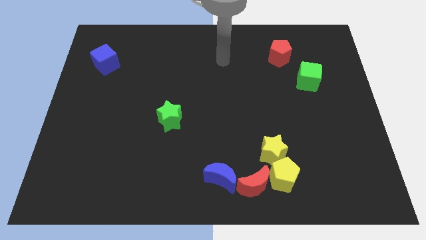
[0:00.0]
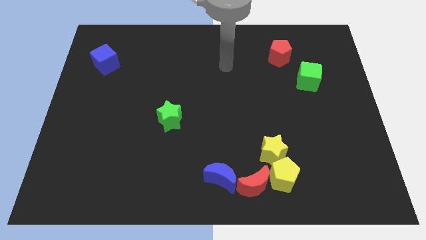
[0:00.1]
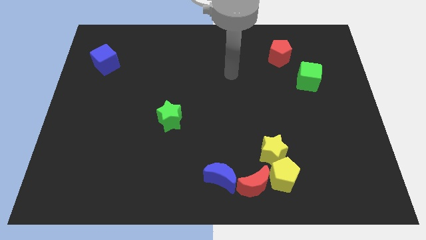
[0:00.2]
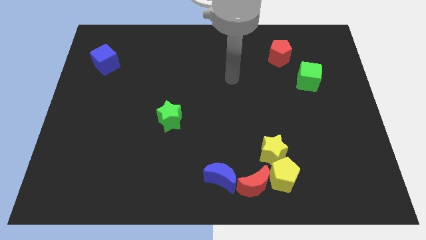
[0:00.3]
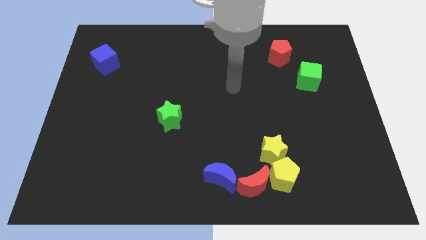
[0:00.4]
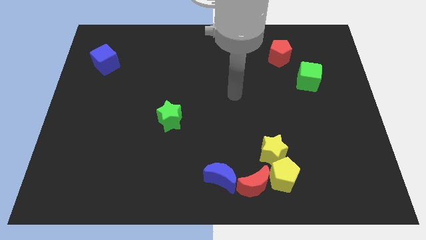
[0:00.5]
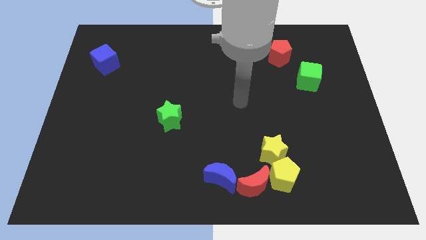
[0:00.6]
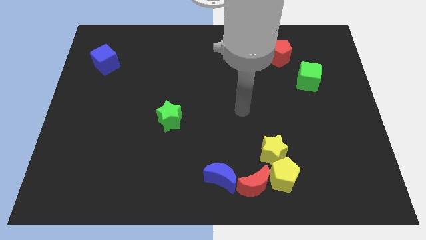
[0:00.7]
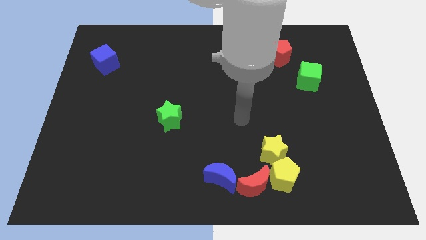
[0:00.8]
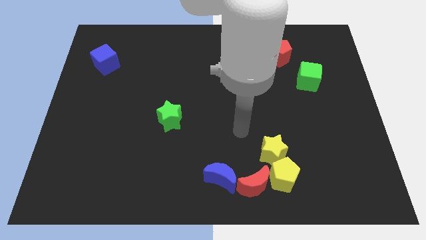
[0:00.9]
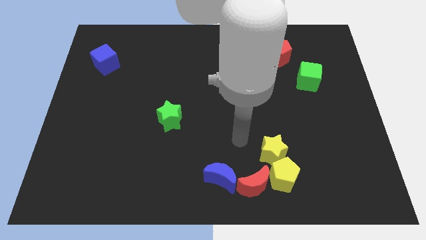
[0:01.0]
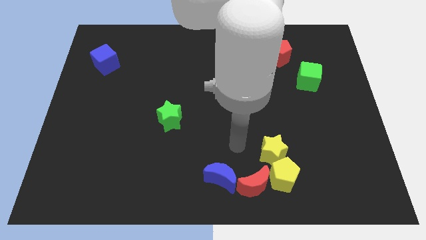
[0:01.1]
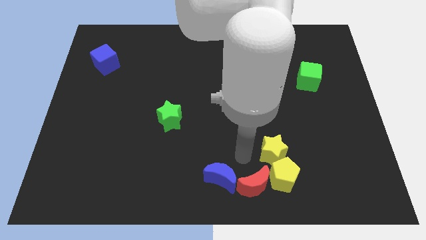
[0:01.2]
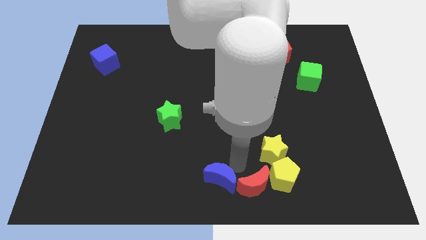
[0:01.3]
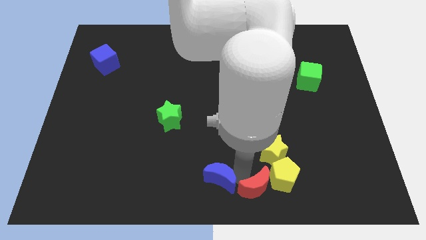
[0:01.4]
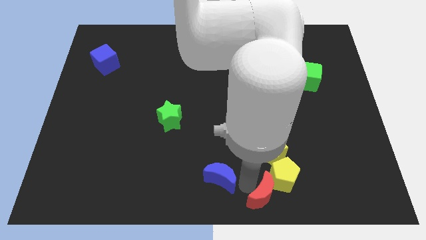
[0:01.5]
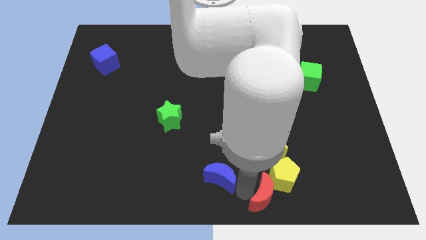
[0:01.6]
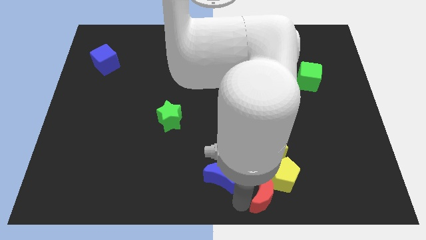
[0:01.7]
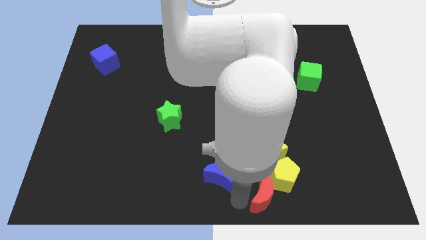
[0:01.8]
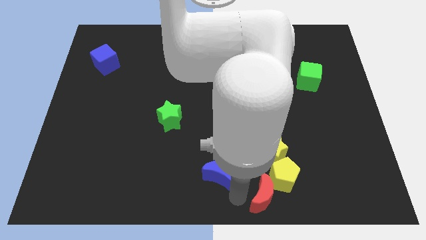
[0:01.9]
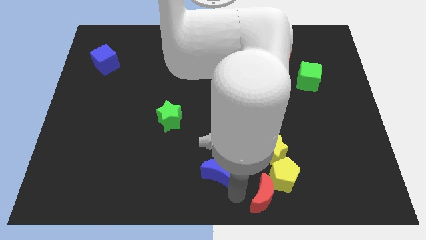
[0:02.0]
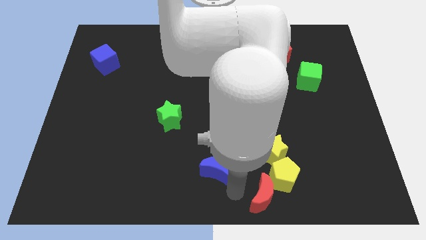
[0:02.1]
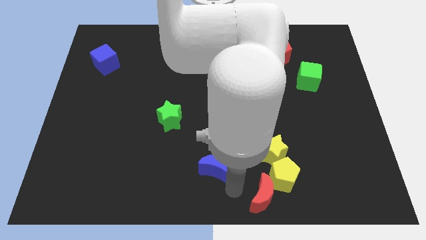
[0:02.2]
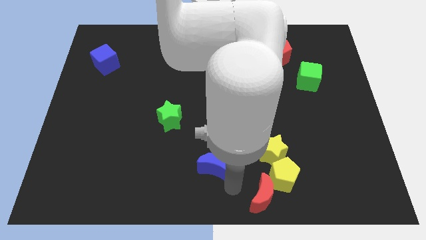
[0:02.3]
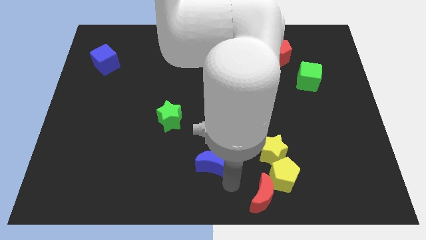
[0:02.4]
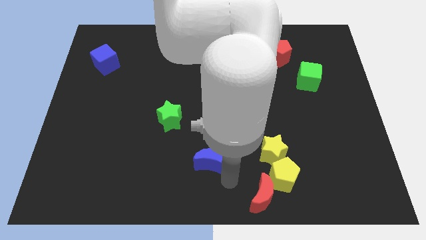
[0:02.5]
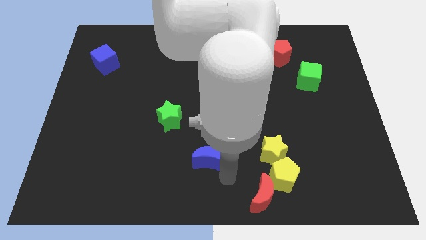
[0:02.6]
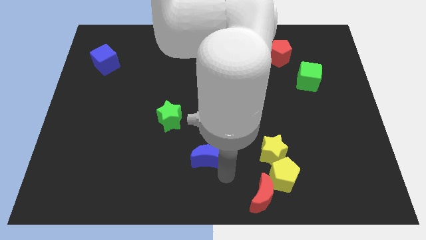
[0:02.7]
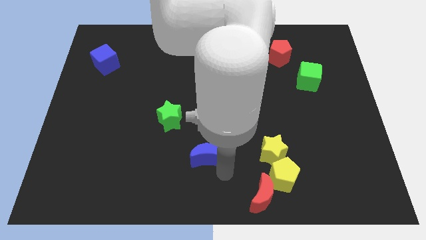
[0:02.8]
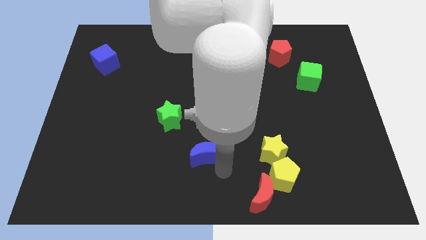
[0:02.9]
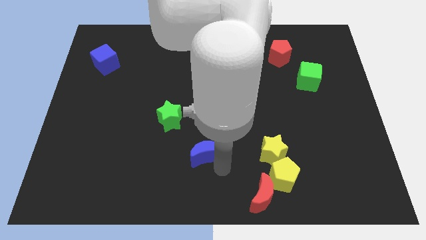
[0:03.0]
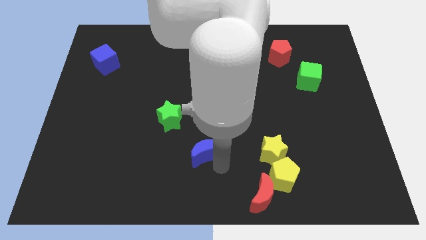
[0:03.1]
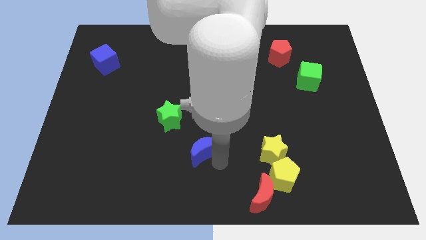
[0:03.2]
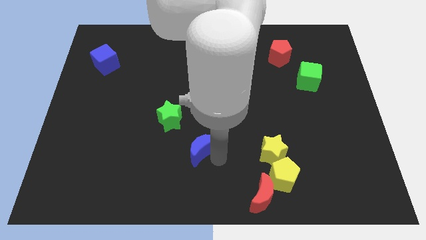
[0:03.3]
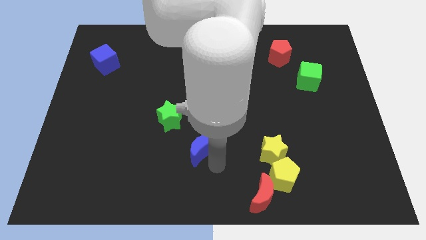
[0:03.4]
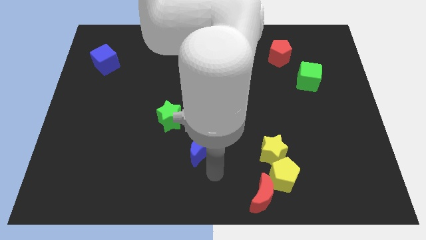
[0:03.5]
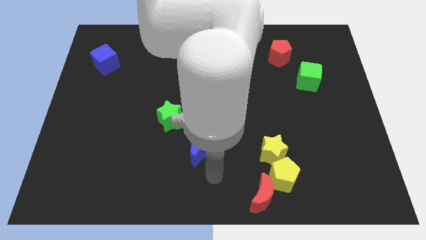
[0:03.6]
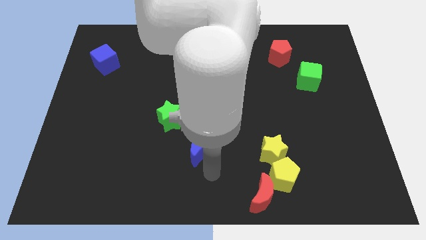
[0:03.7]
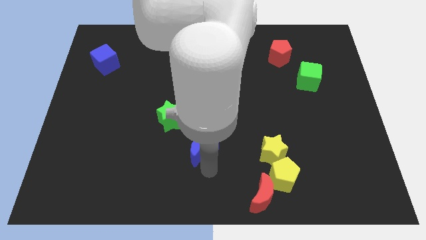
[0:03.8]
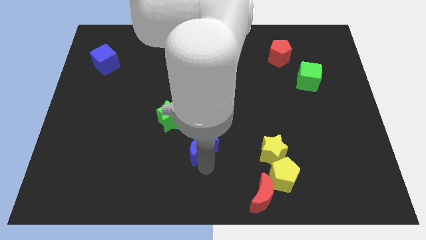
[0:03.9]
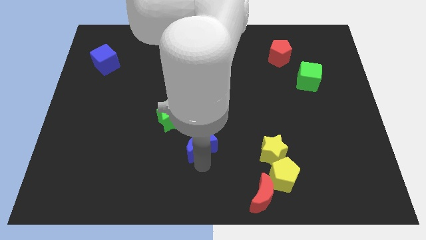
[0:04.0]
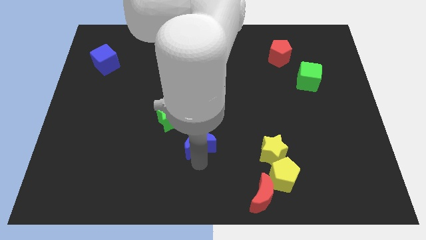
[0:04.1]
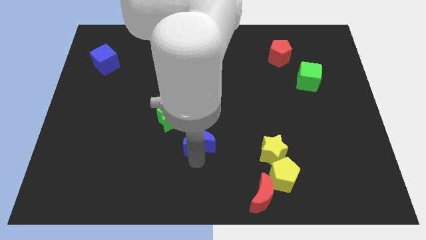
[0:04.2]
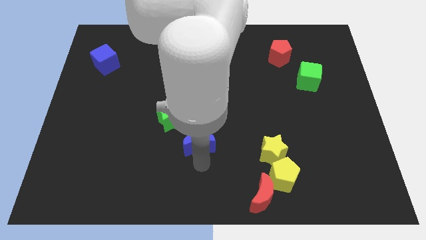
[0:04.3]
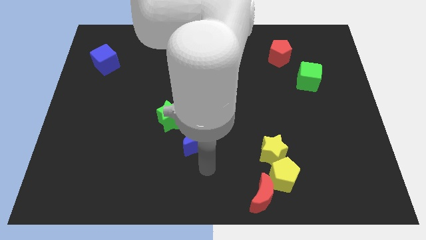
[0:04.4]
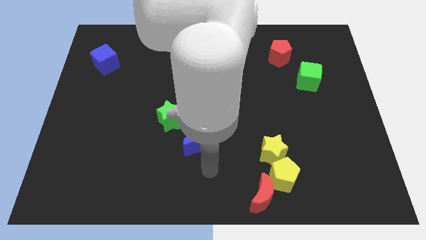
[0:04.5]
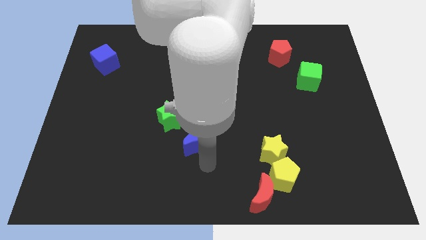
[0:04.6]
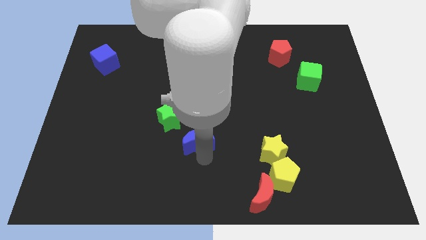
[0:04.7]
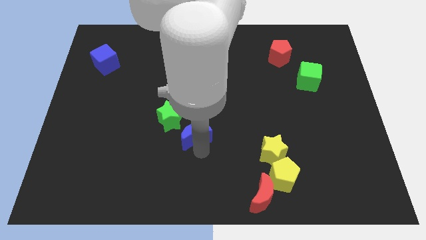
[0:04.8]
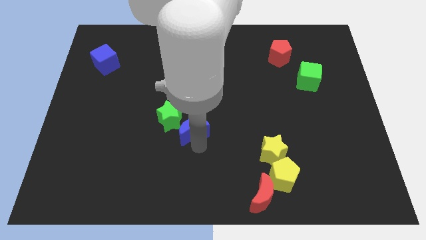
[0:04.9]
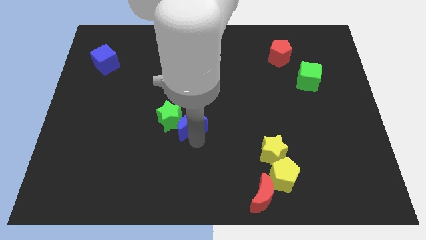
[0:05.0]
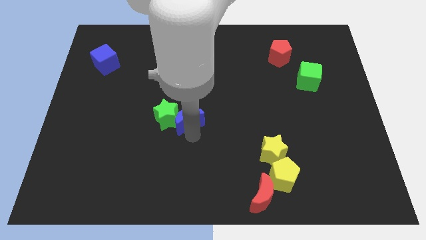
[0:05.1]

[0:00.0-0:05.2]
move the blue moon to the top right of the green star

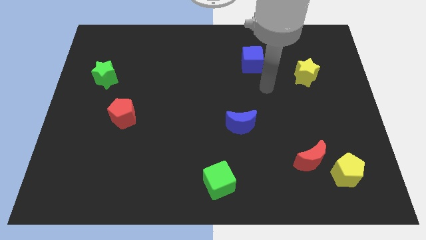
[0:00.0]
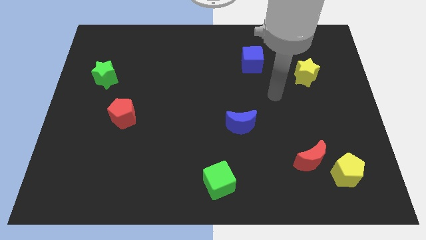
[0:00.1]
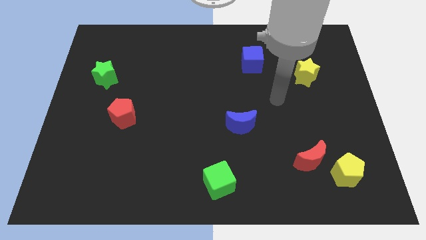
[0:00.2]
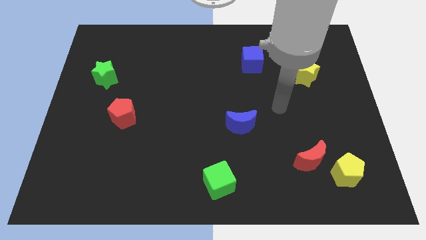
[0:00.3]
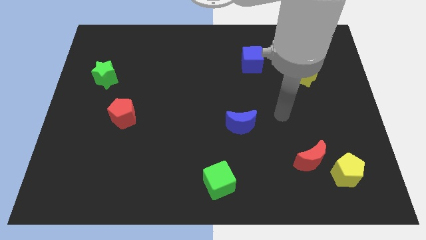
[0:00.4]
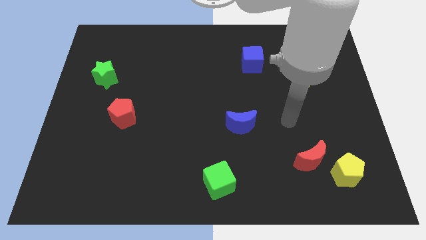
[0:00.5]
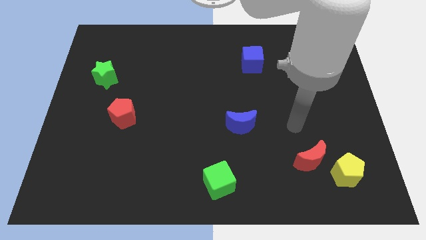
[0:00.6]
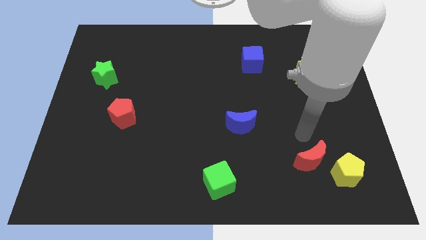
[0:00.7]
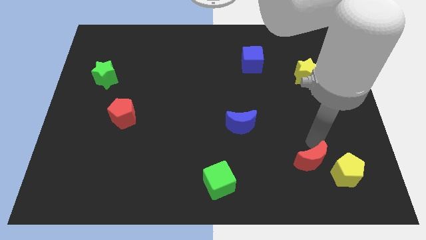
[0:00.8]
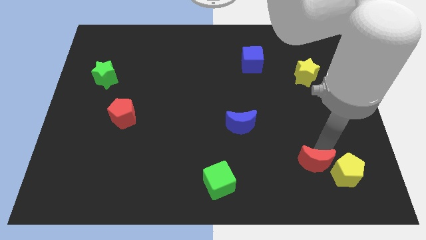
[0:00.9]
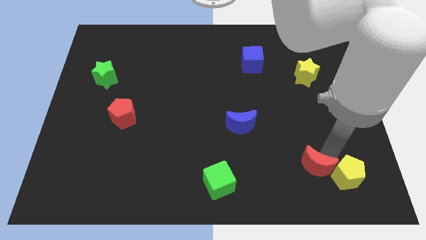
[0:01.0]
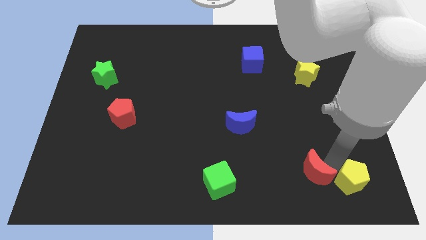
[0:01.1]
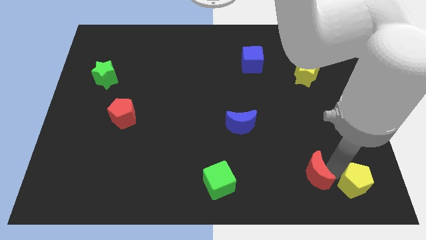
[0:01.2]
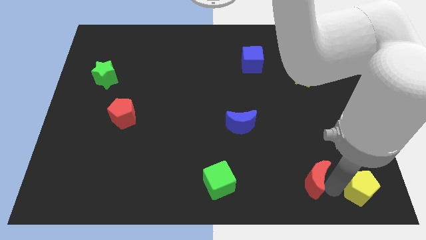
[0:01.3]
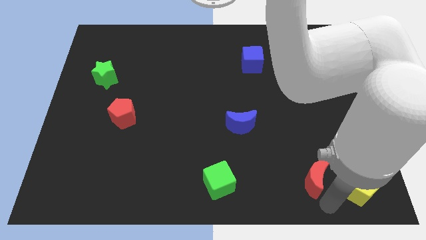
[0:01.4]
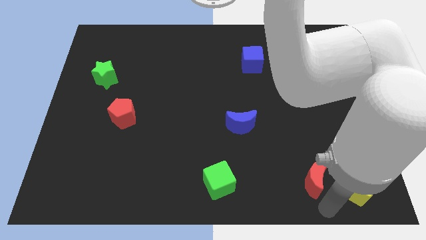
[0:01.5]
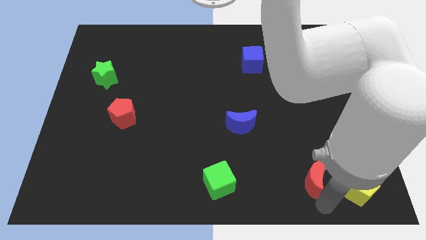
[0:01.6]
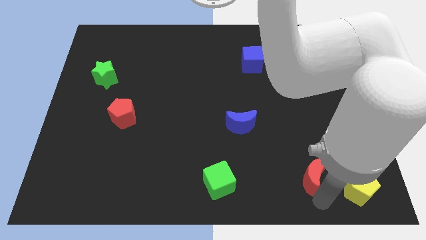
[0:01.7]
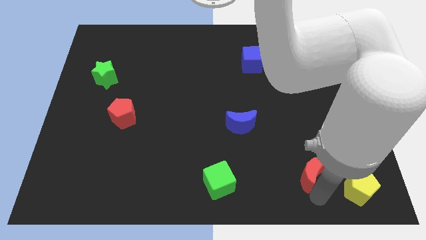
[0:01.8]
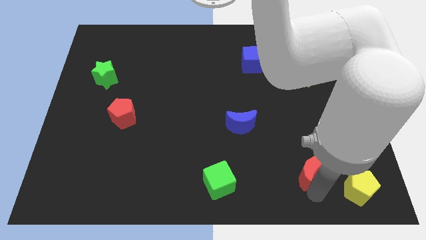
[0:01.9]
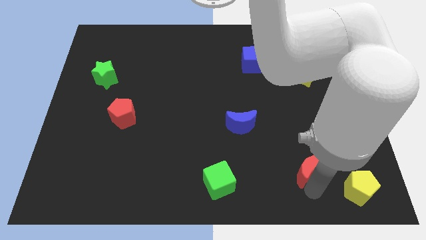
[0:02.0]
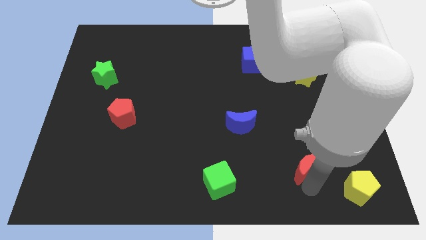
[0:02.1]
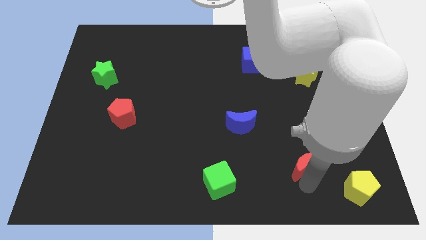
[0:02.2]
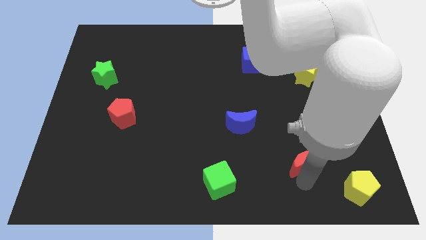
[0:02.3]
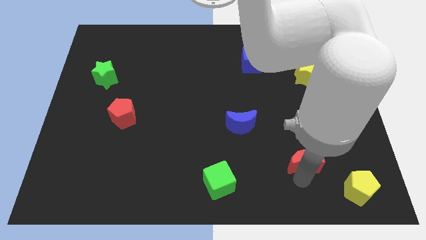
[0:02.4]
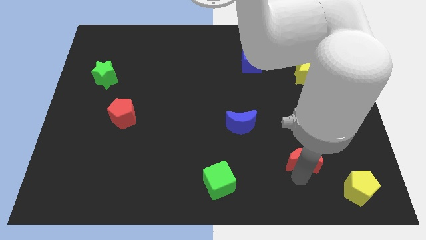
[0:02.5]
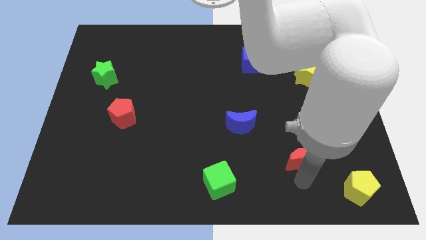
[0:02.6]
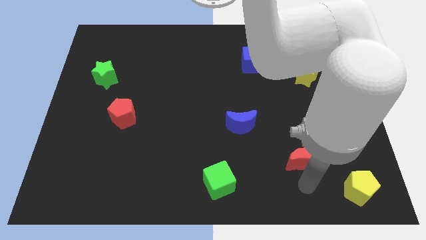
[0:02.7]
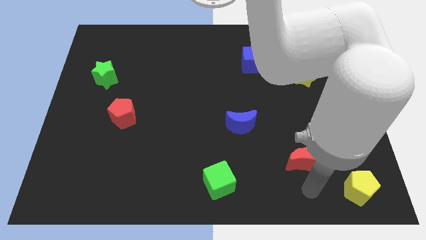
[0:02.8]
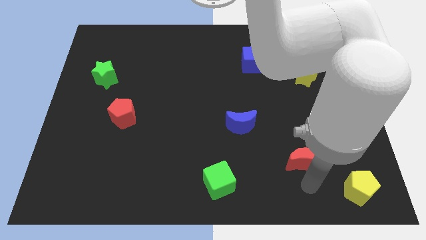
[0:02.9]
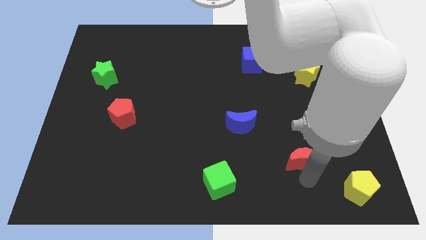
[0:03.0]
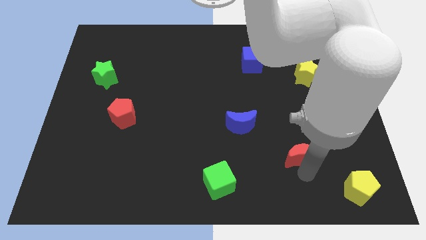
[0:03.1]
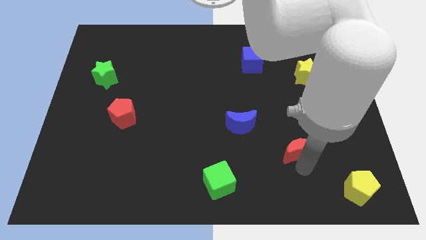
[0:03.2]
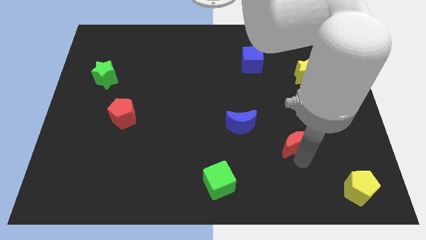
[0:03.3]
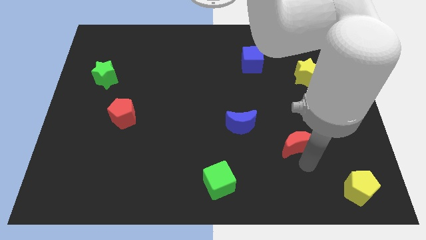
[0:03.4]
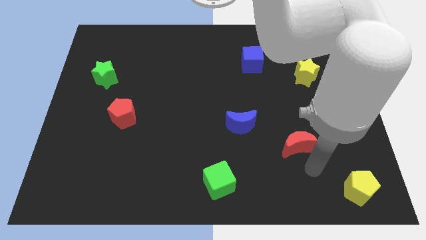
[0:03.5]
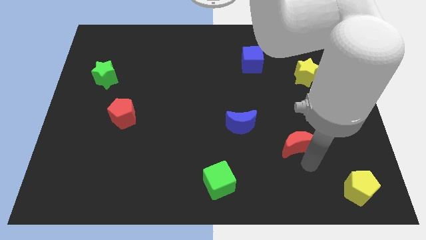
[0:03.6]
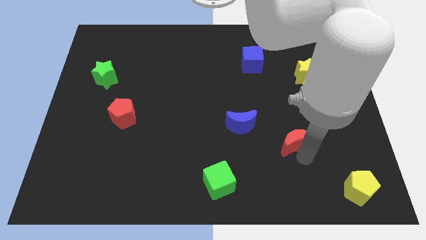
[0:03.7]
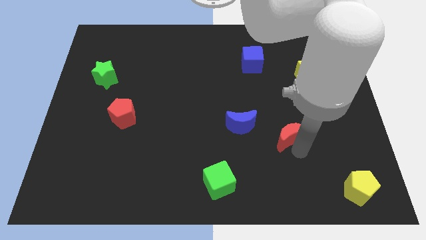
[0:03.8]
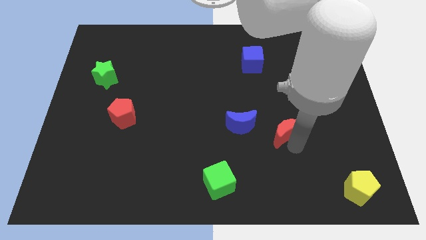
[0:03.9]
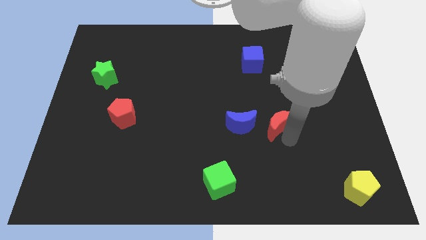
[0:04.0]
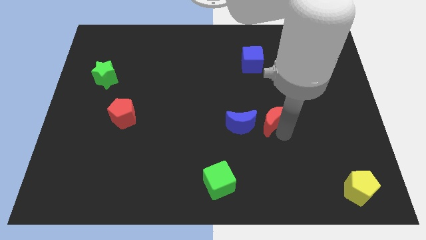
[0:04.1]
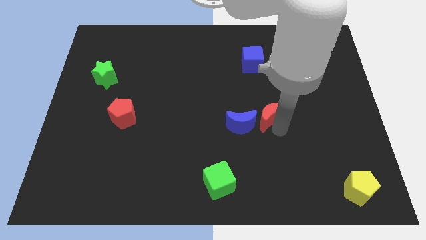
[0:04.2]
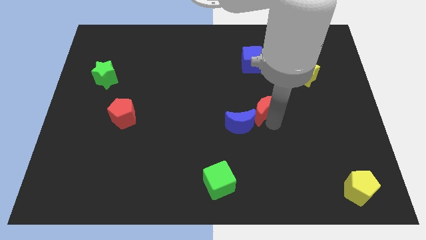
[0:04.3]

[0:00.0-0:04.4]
slide the red moon to the bottom of the blue cube
